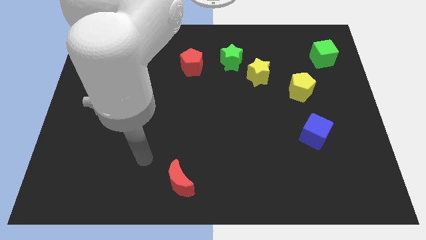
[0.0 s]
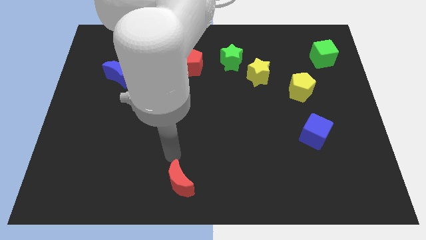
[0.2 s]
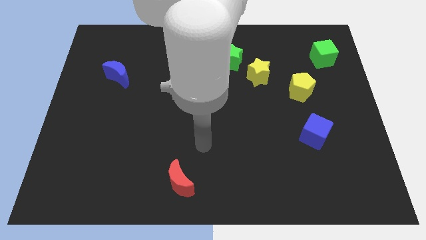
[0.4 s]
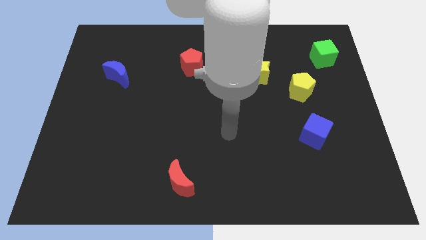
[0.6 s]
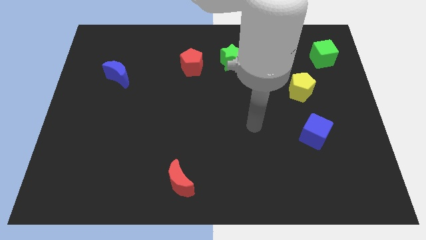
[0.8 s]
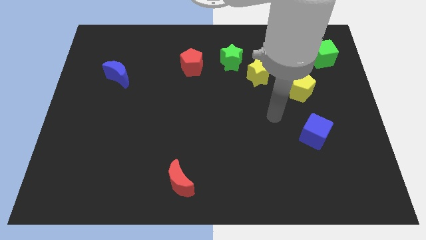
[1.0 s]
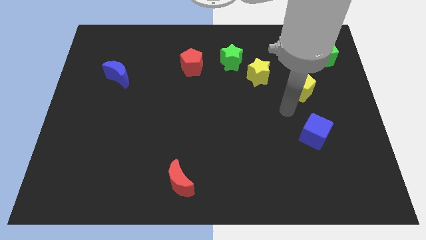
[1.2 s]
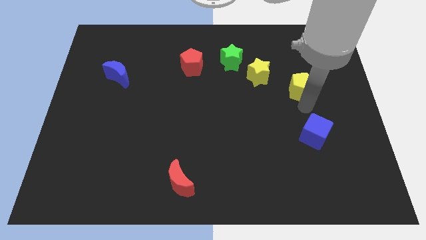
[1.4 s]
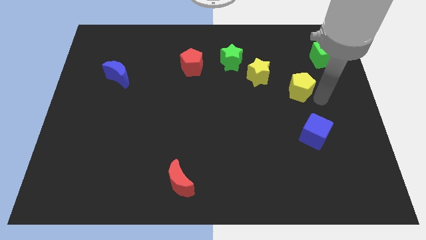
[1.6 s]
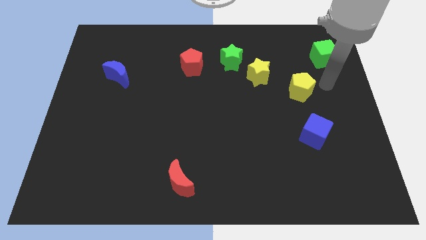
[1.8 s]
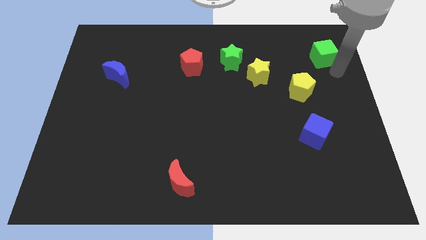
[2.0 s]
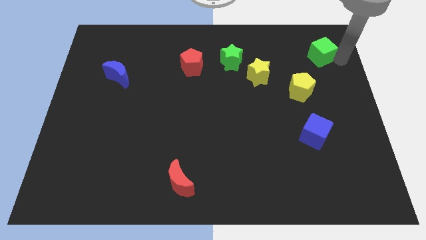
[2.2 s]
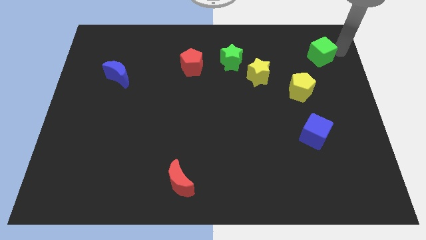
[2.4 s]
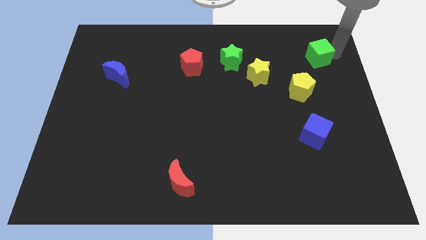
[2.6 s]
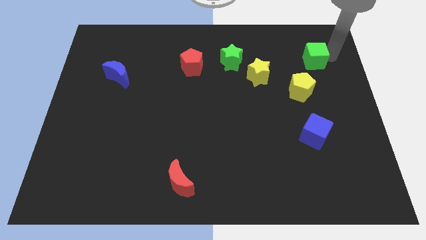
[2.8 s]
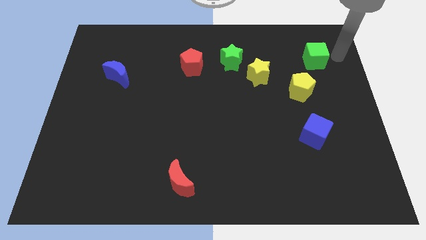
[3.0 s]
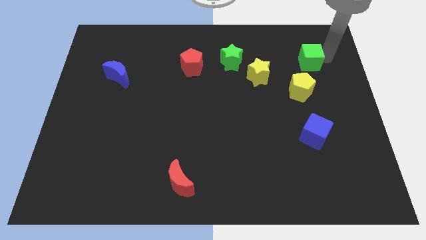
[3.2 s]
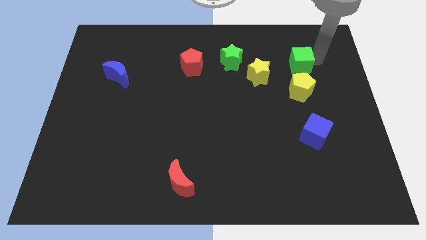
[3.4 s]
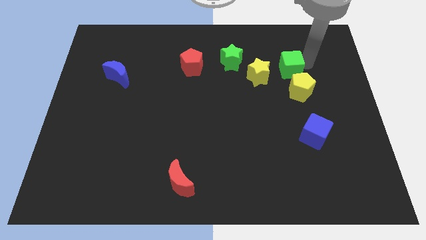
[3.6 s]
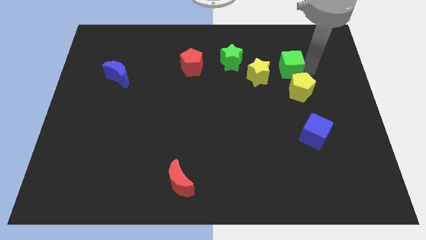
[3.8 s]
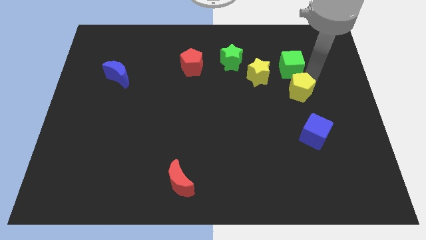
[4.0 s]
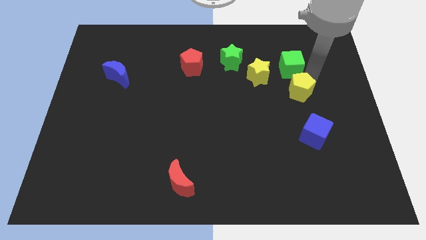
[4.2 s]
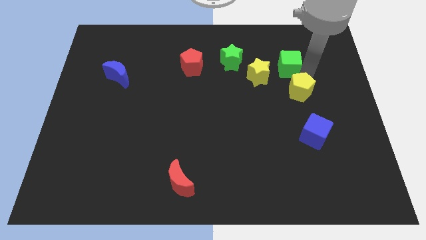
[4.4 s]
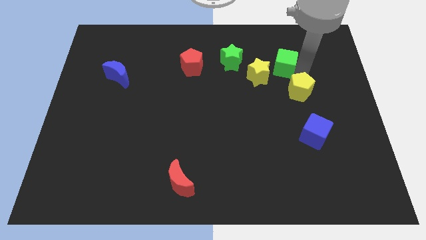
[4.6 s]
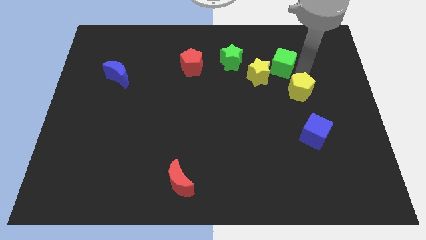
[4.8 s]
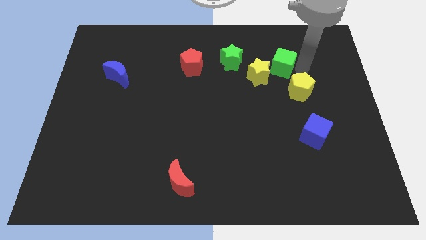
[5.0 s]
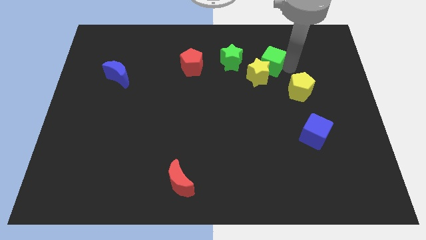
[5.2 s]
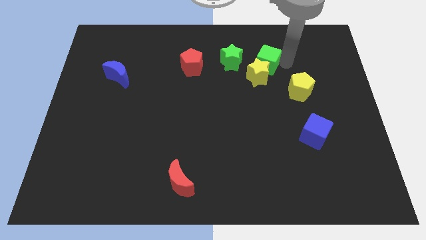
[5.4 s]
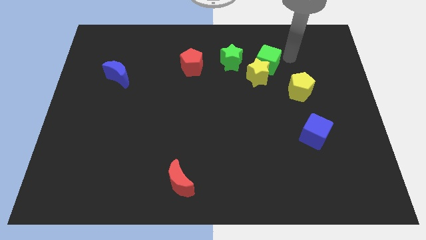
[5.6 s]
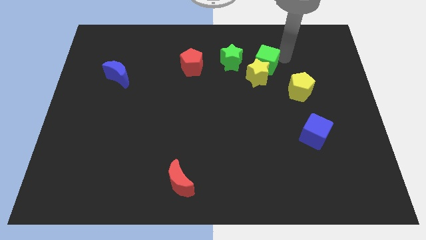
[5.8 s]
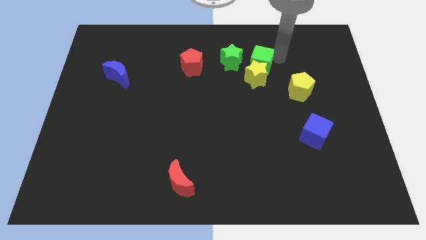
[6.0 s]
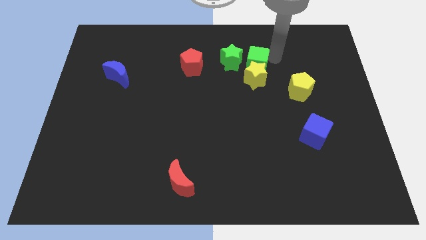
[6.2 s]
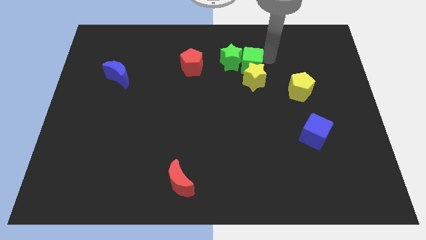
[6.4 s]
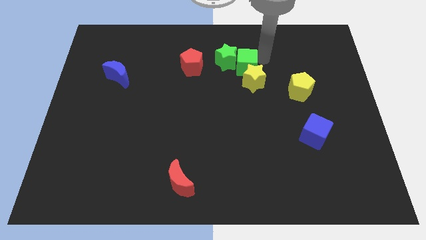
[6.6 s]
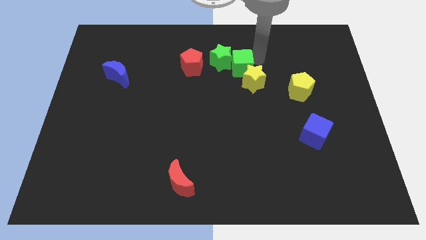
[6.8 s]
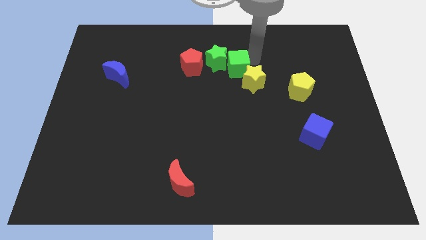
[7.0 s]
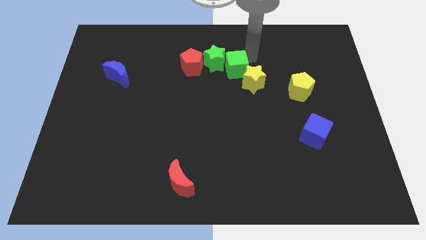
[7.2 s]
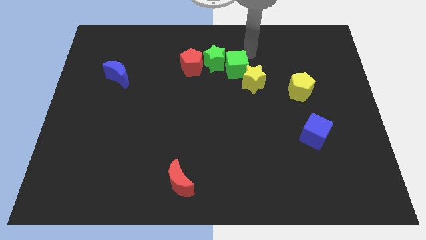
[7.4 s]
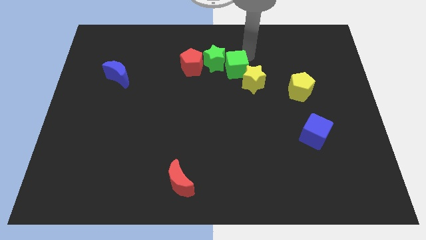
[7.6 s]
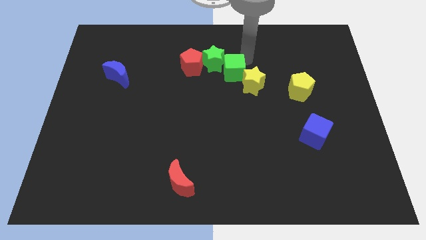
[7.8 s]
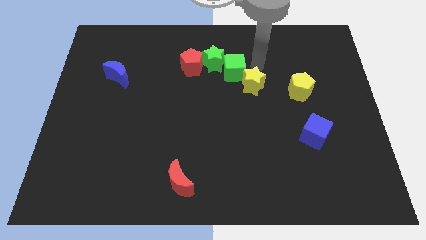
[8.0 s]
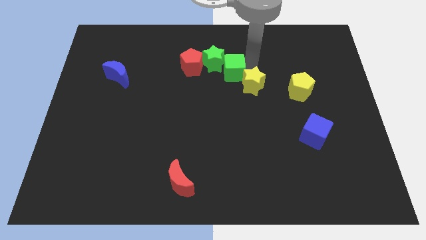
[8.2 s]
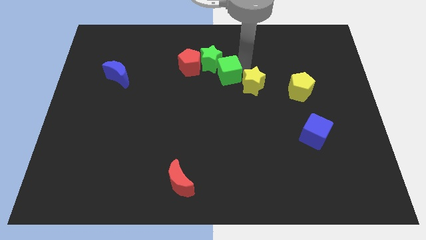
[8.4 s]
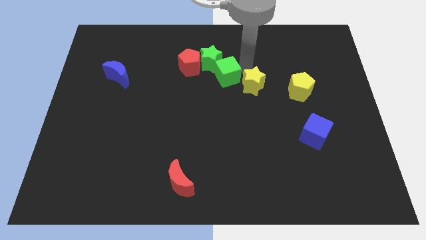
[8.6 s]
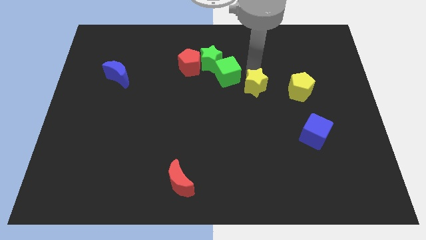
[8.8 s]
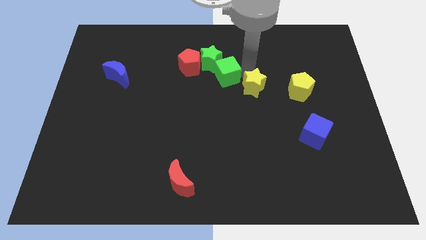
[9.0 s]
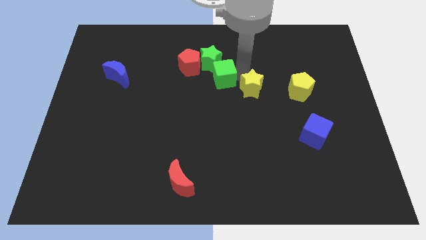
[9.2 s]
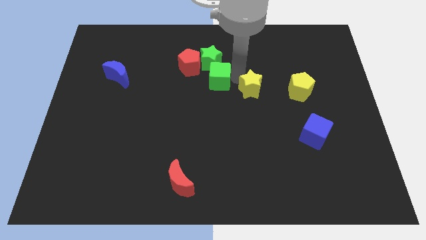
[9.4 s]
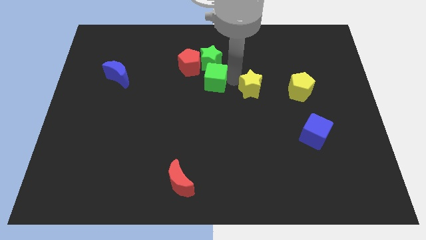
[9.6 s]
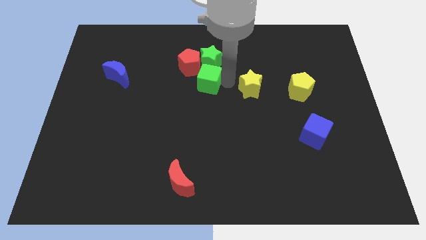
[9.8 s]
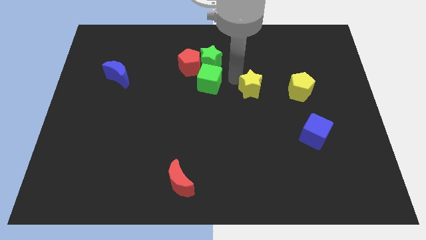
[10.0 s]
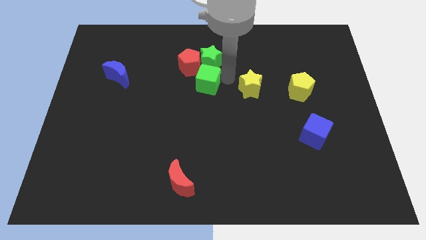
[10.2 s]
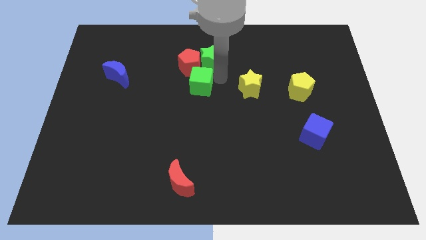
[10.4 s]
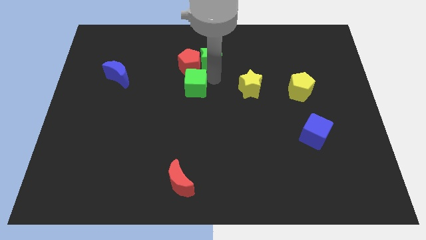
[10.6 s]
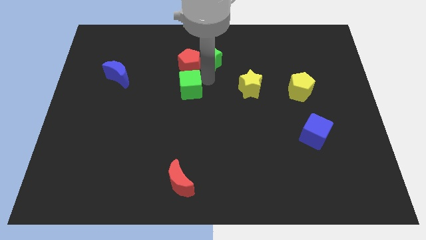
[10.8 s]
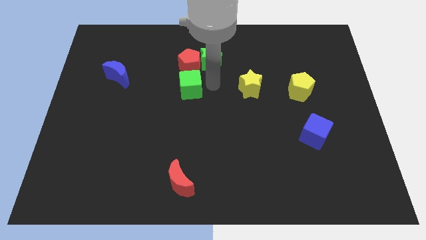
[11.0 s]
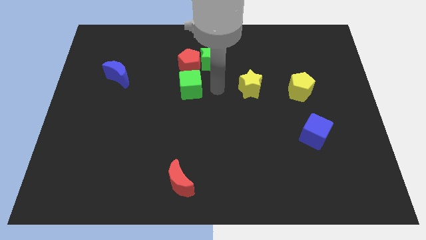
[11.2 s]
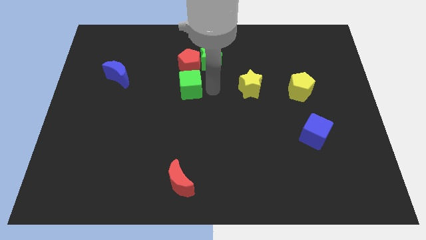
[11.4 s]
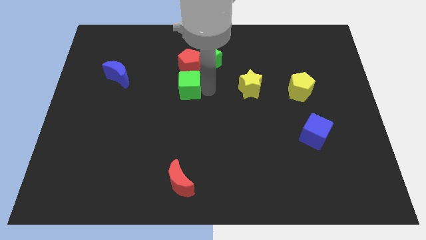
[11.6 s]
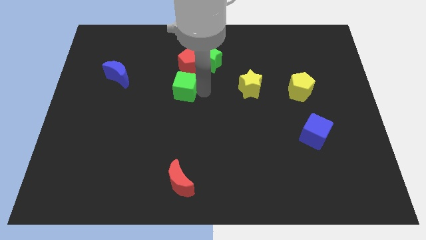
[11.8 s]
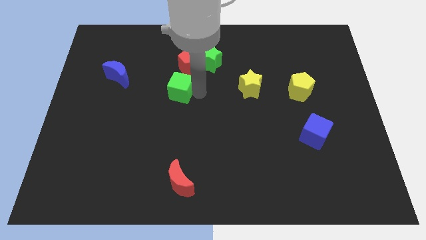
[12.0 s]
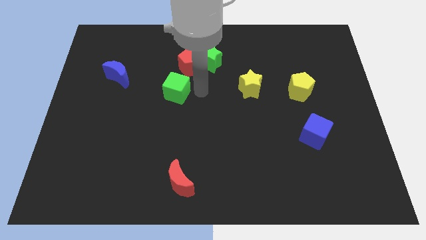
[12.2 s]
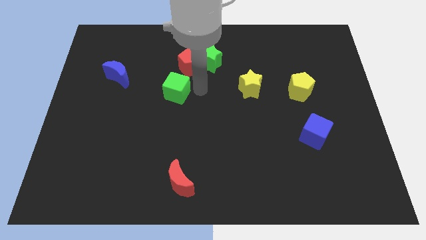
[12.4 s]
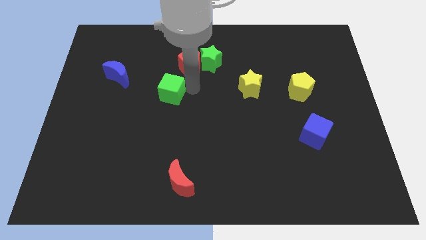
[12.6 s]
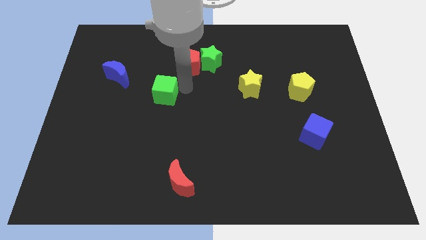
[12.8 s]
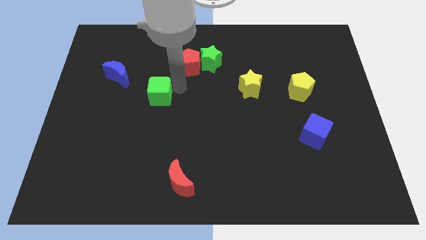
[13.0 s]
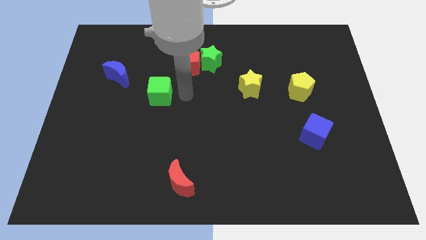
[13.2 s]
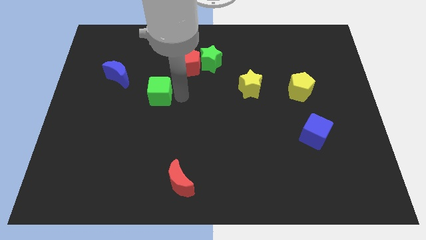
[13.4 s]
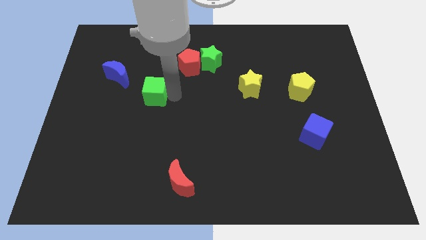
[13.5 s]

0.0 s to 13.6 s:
move the green cube to the bottom right side of the blue moon
